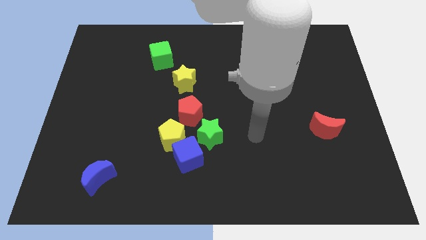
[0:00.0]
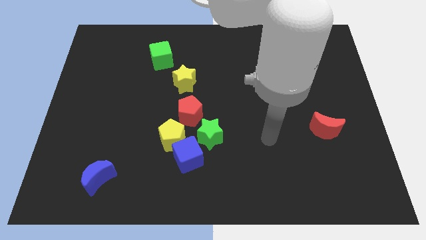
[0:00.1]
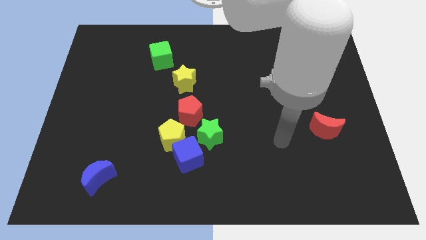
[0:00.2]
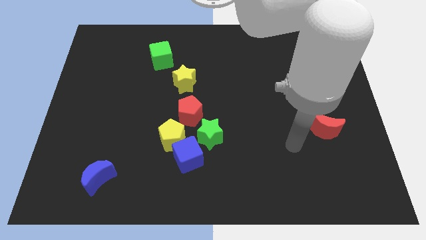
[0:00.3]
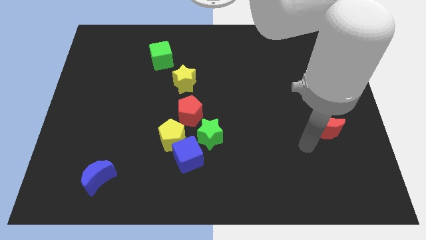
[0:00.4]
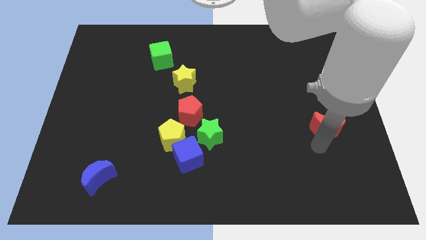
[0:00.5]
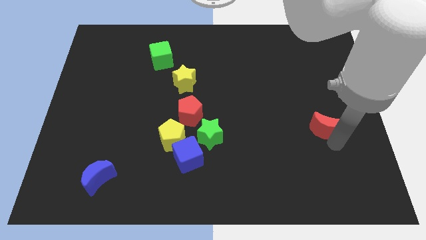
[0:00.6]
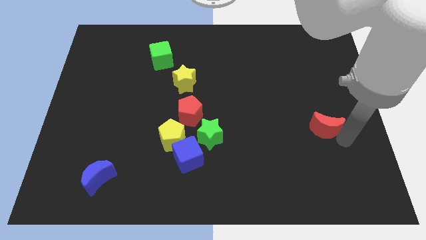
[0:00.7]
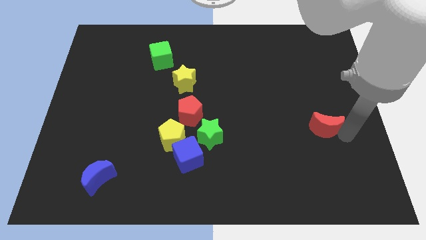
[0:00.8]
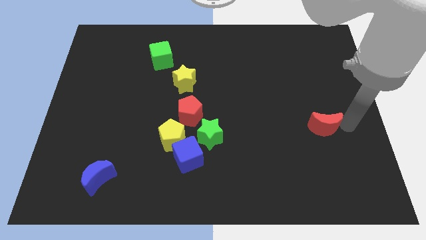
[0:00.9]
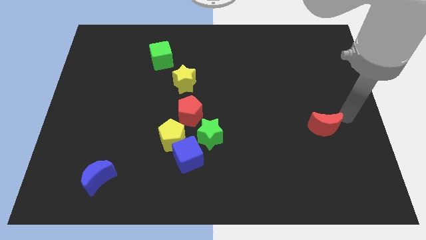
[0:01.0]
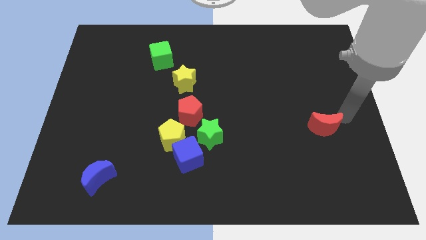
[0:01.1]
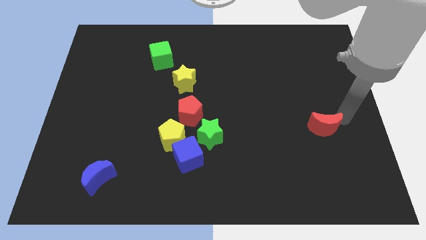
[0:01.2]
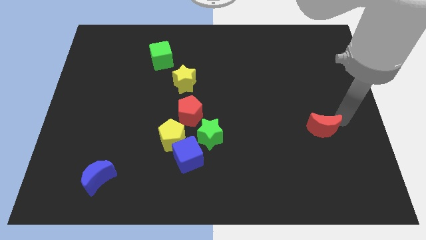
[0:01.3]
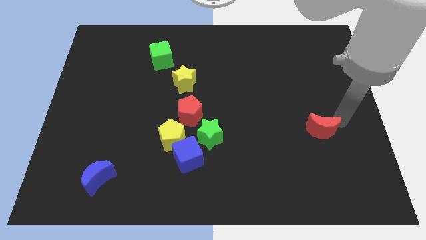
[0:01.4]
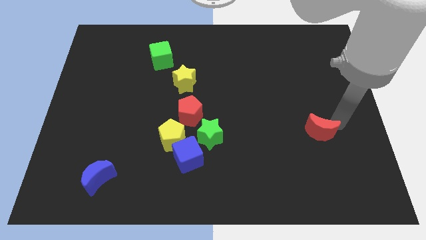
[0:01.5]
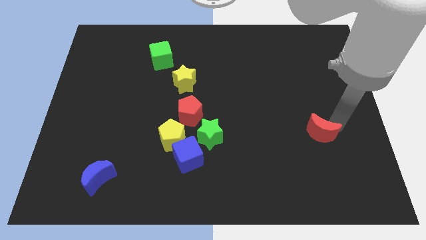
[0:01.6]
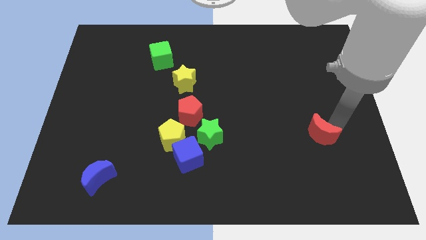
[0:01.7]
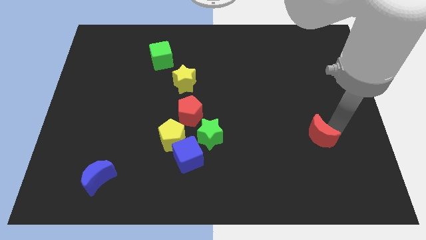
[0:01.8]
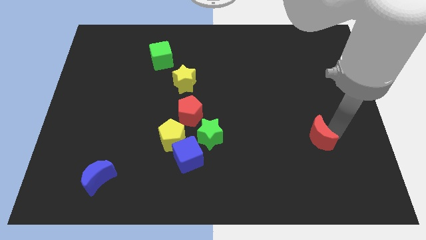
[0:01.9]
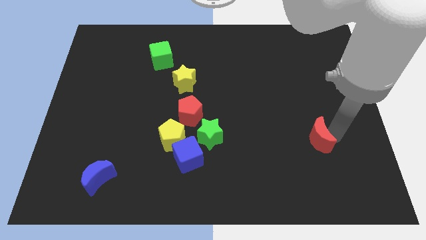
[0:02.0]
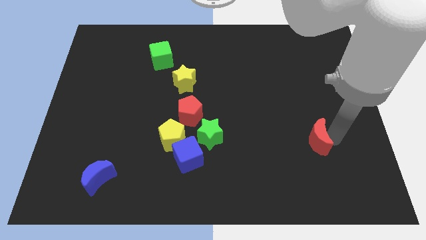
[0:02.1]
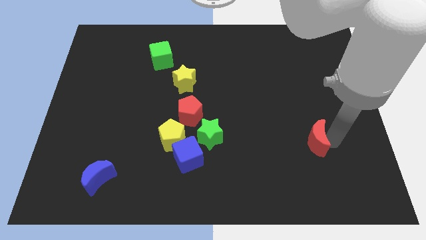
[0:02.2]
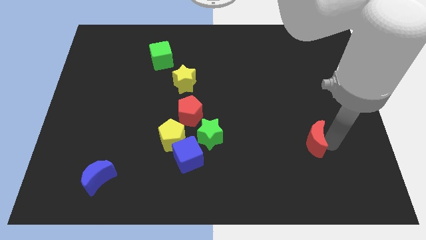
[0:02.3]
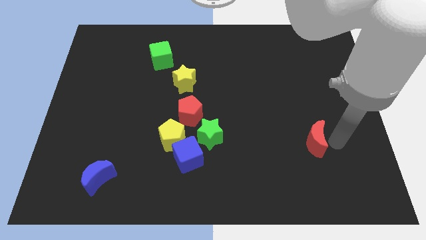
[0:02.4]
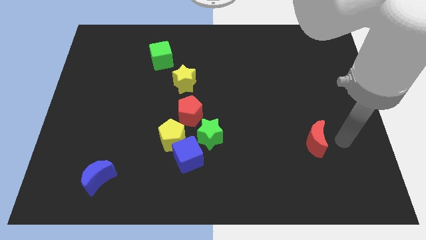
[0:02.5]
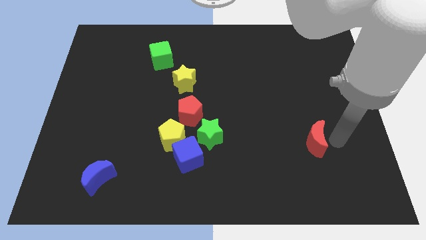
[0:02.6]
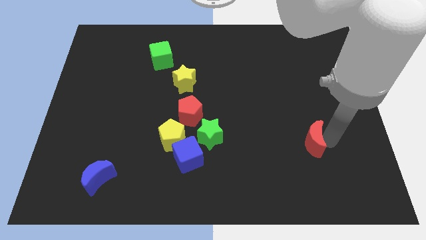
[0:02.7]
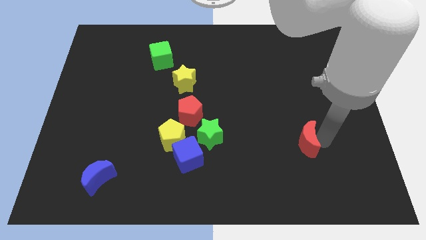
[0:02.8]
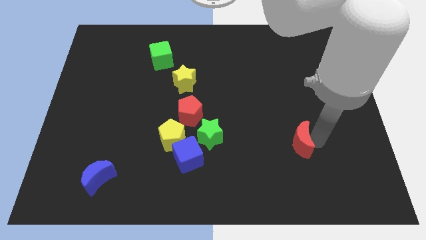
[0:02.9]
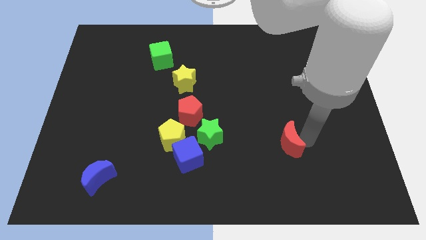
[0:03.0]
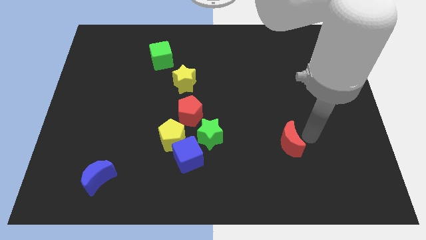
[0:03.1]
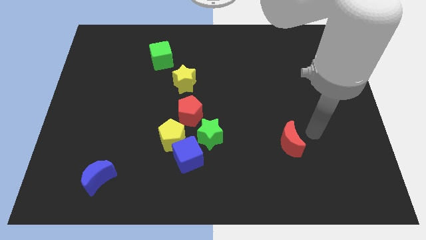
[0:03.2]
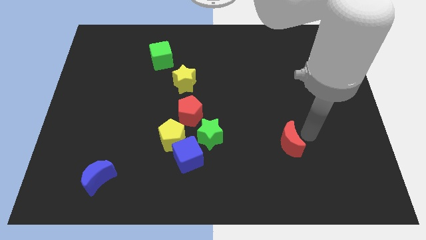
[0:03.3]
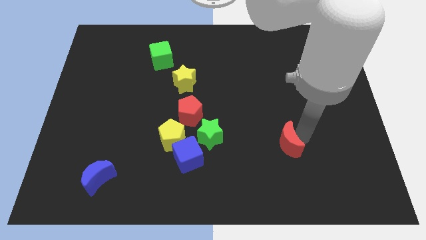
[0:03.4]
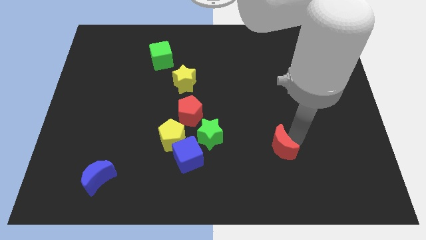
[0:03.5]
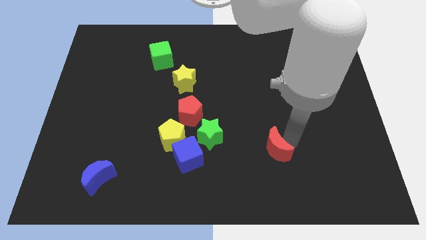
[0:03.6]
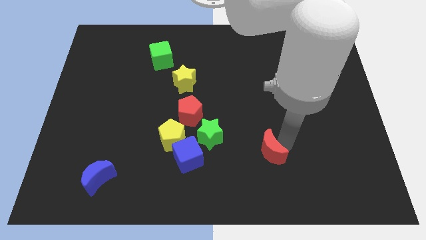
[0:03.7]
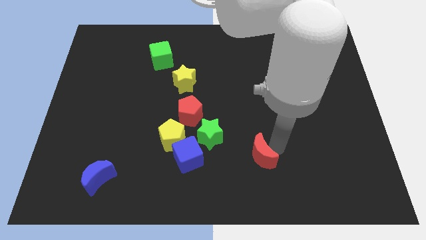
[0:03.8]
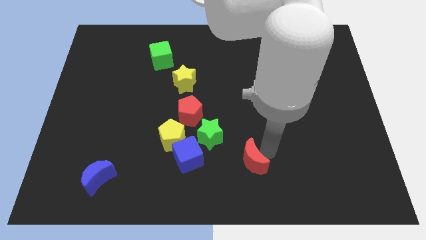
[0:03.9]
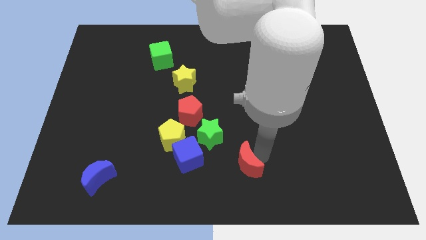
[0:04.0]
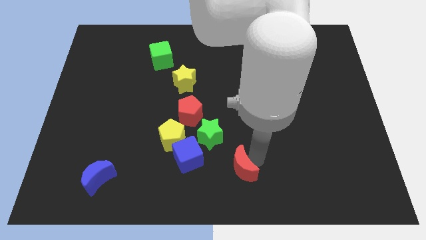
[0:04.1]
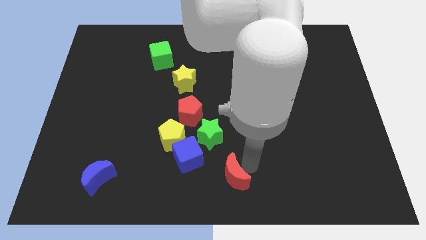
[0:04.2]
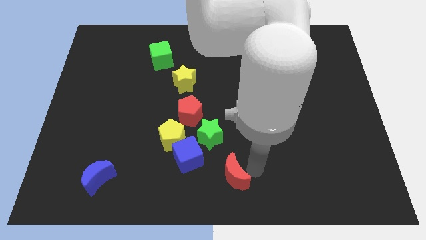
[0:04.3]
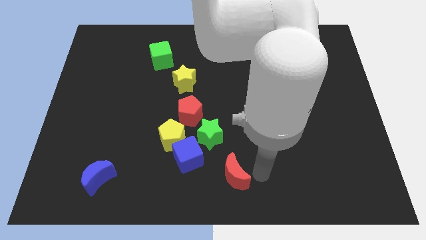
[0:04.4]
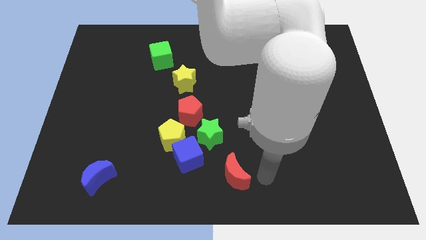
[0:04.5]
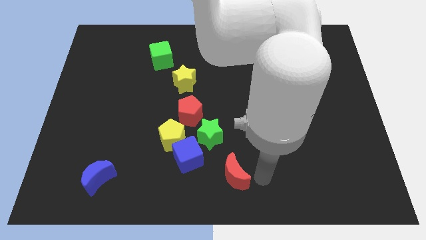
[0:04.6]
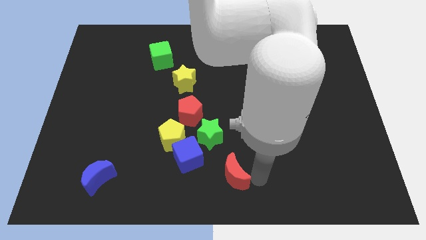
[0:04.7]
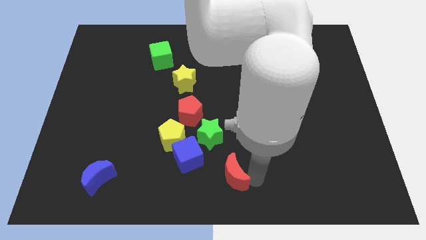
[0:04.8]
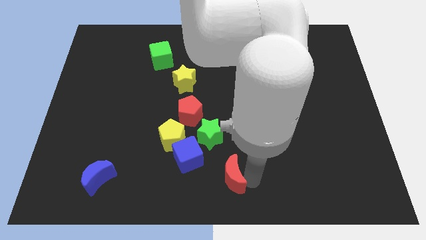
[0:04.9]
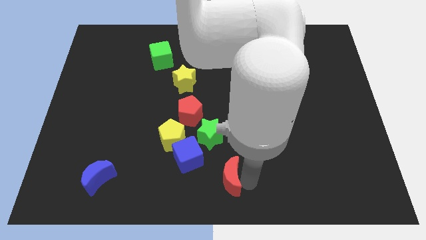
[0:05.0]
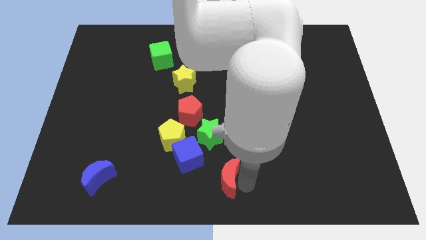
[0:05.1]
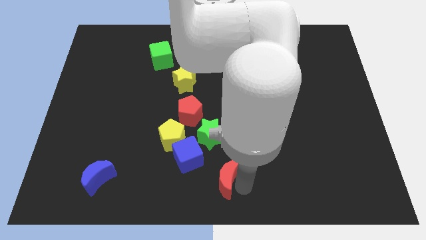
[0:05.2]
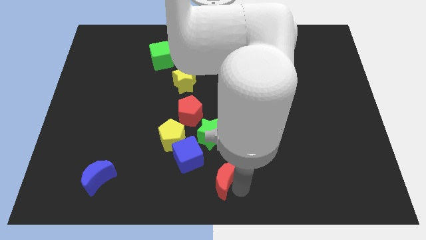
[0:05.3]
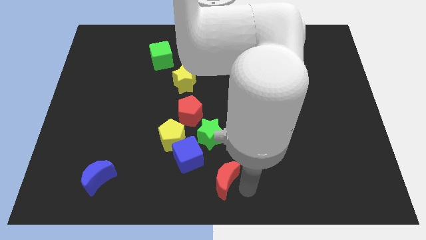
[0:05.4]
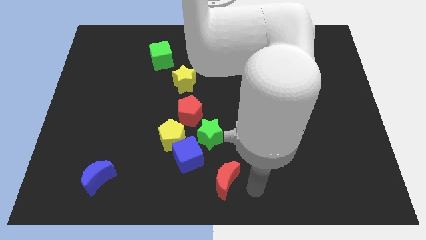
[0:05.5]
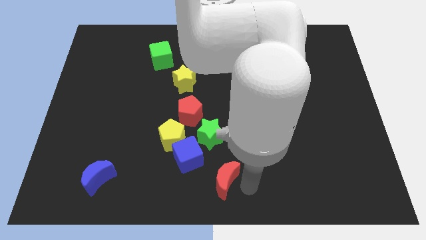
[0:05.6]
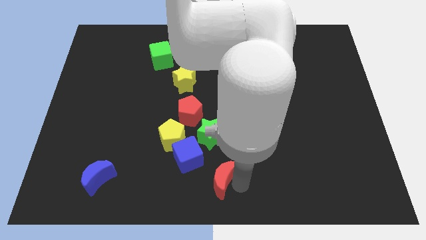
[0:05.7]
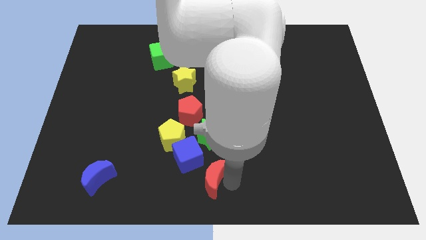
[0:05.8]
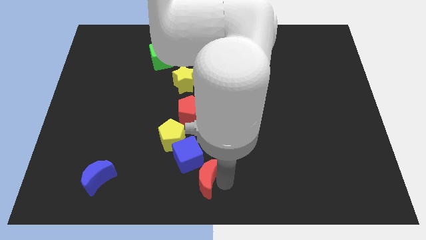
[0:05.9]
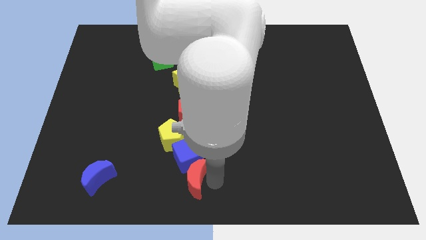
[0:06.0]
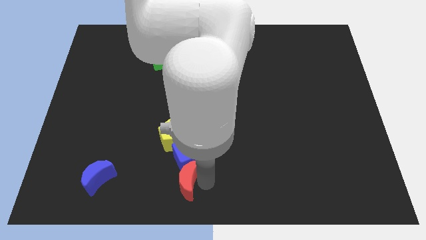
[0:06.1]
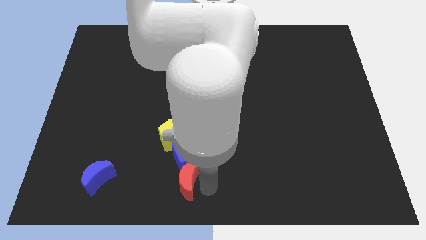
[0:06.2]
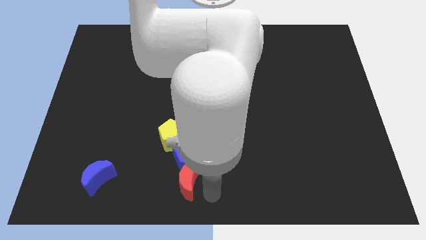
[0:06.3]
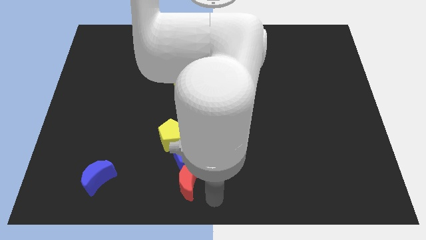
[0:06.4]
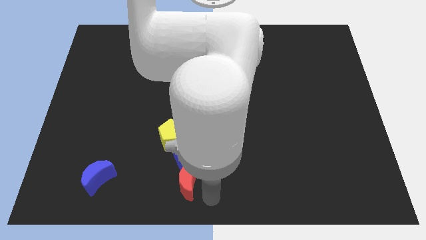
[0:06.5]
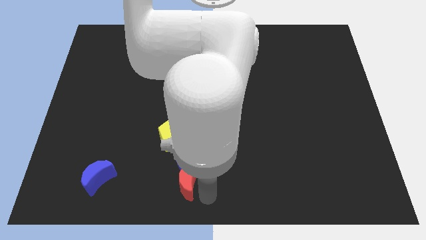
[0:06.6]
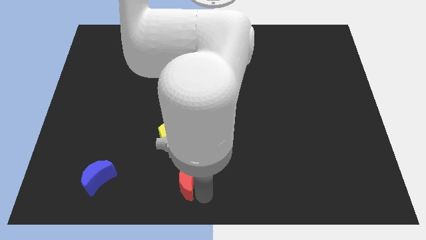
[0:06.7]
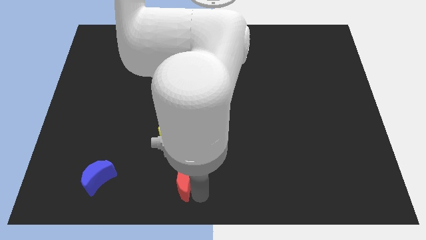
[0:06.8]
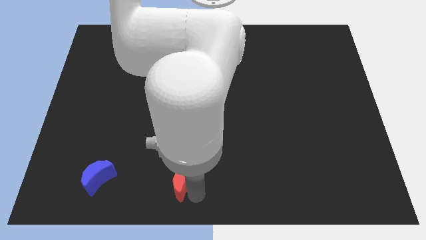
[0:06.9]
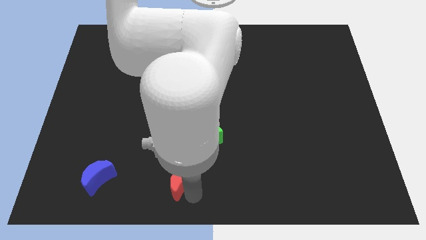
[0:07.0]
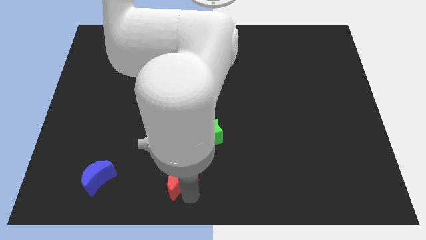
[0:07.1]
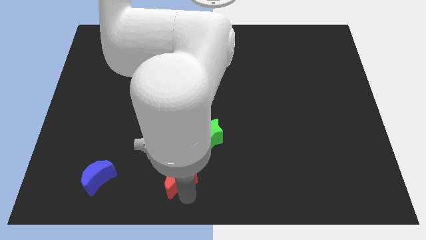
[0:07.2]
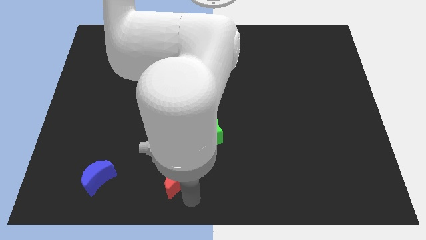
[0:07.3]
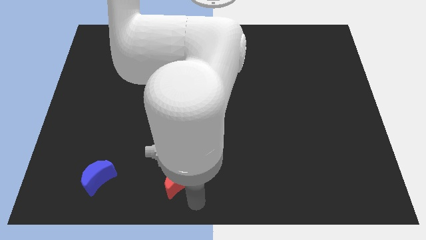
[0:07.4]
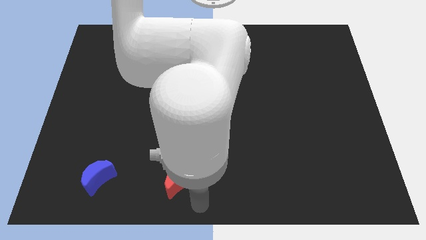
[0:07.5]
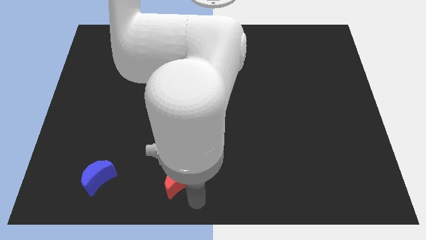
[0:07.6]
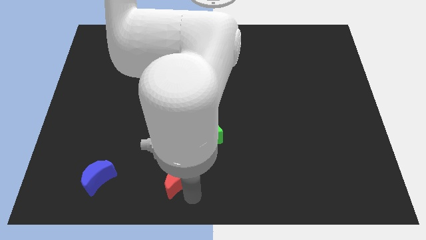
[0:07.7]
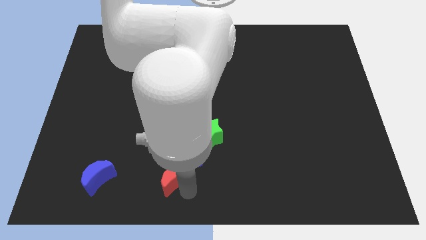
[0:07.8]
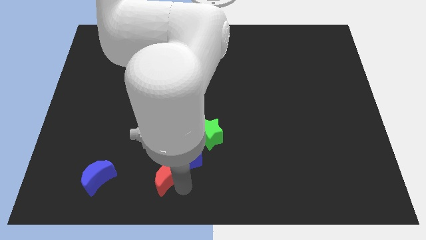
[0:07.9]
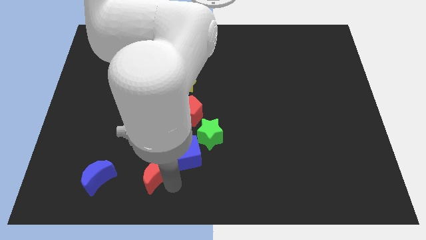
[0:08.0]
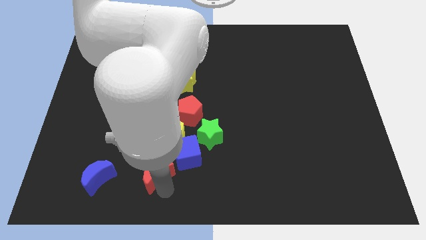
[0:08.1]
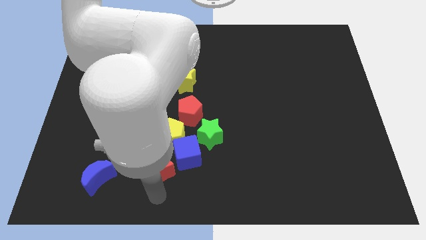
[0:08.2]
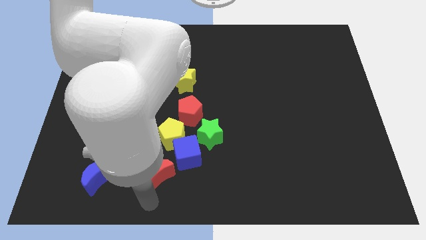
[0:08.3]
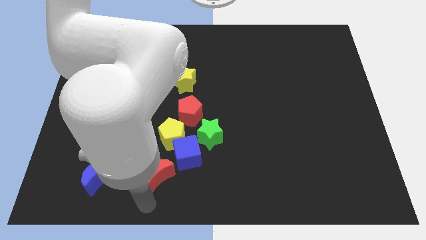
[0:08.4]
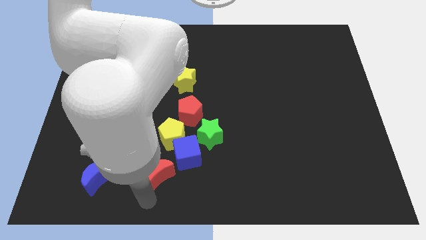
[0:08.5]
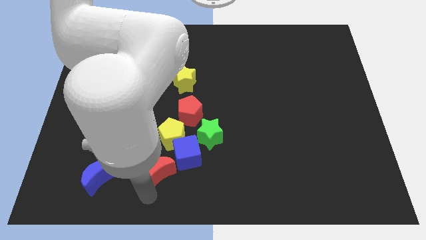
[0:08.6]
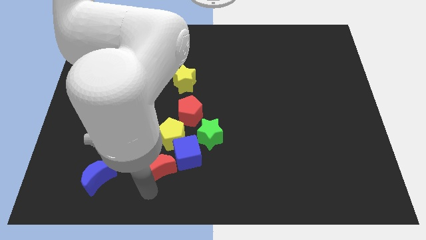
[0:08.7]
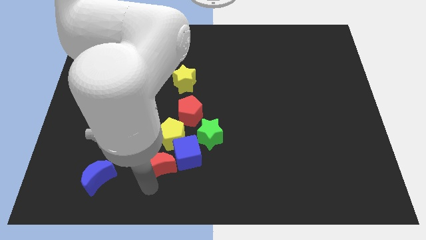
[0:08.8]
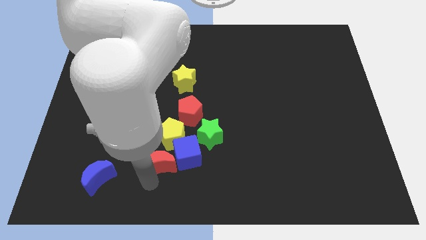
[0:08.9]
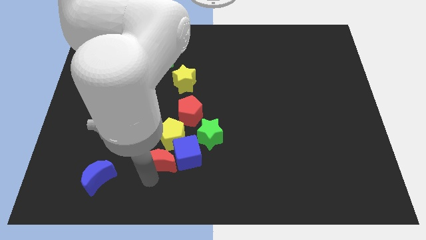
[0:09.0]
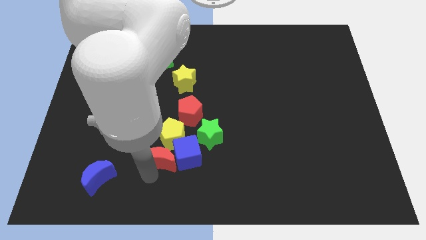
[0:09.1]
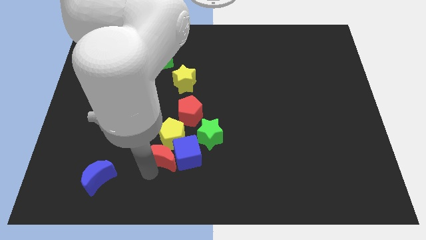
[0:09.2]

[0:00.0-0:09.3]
slide the red moon towards the yellow pentagon
